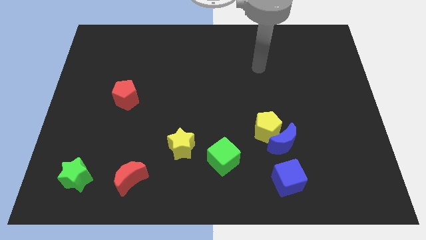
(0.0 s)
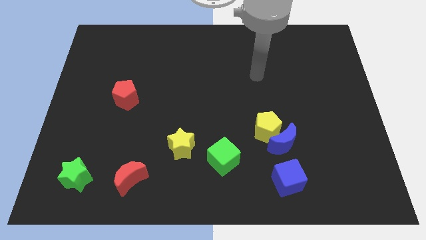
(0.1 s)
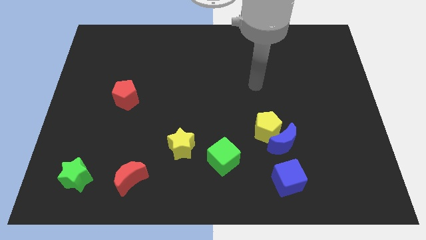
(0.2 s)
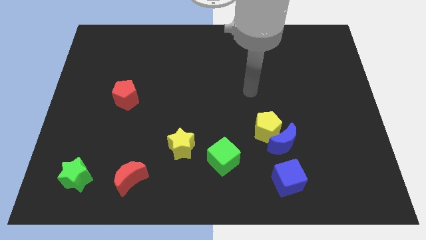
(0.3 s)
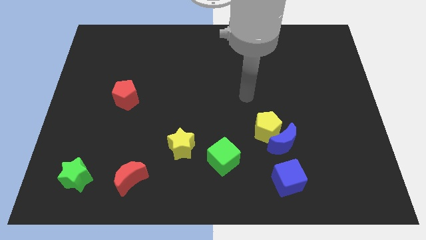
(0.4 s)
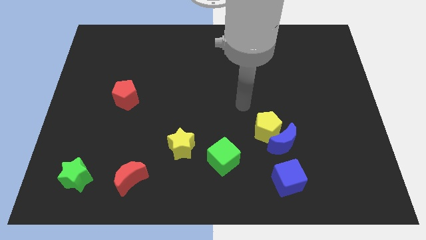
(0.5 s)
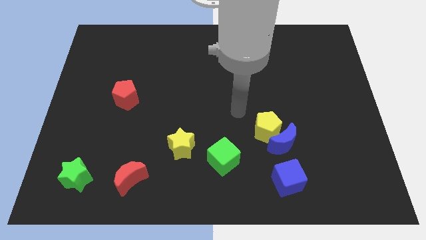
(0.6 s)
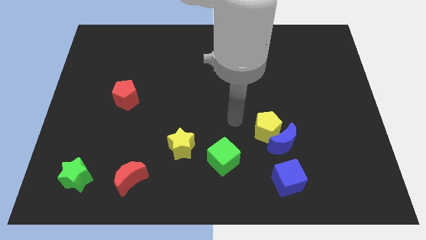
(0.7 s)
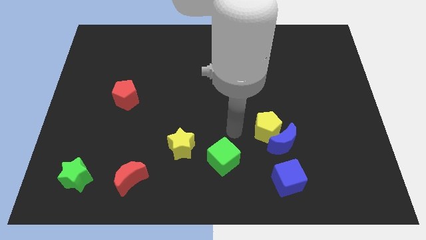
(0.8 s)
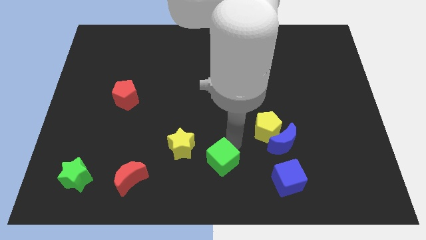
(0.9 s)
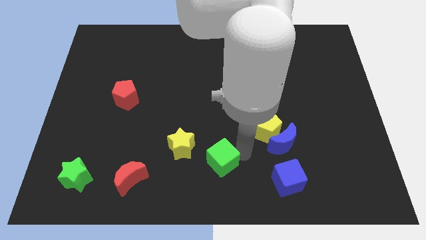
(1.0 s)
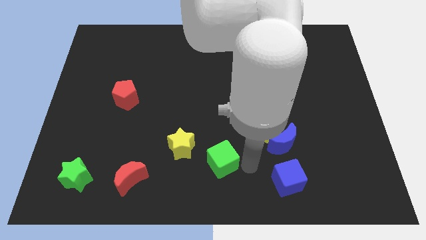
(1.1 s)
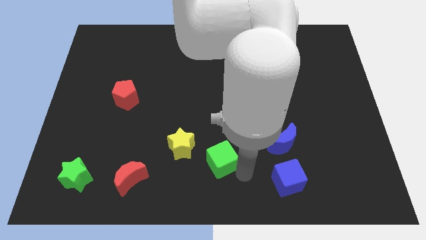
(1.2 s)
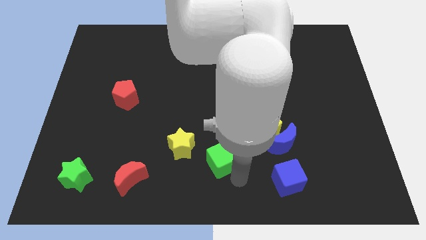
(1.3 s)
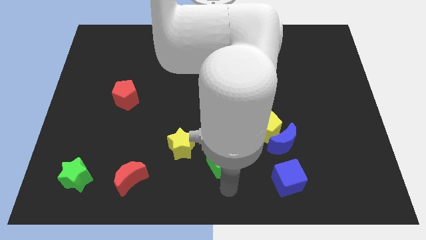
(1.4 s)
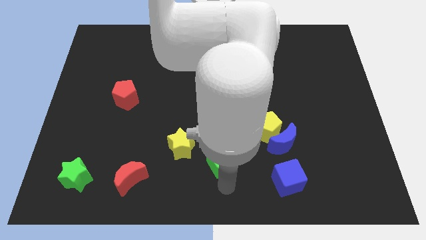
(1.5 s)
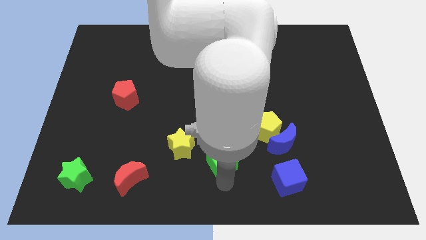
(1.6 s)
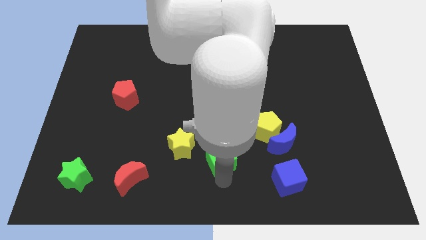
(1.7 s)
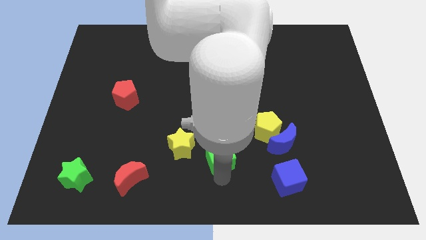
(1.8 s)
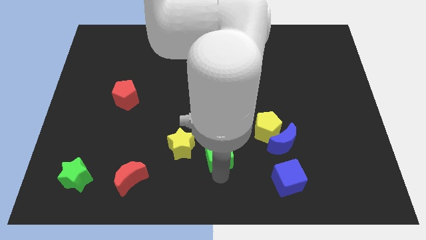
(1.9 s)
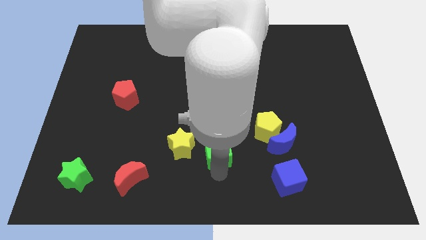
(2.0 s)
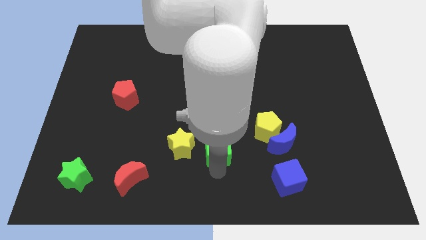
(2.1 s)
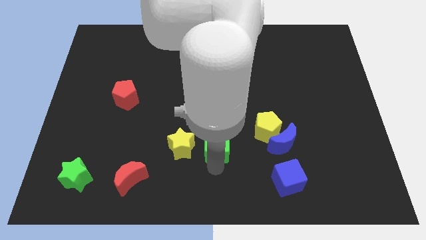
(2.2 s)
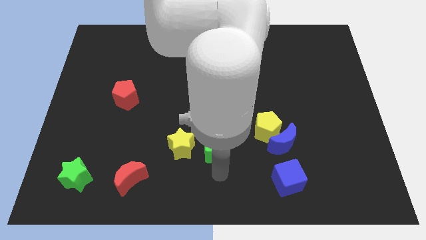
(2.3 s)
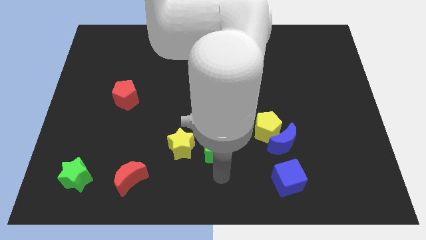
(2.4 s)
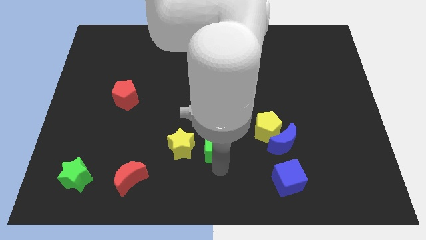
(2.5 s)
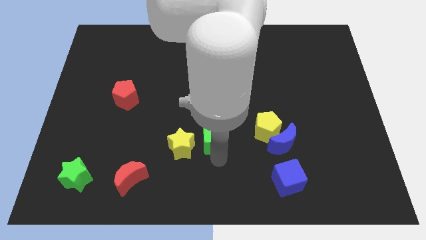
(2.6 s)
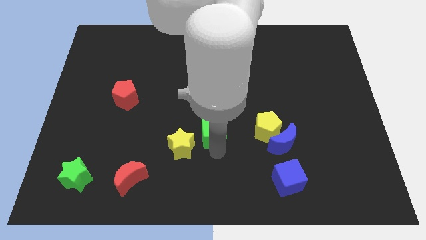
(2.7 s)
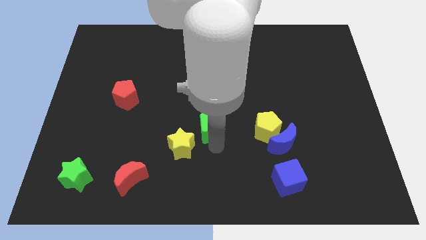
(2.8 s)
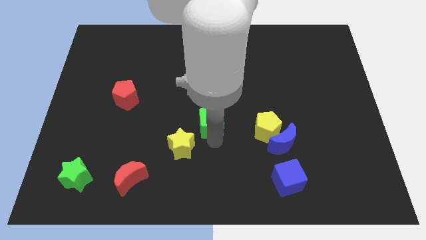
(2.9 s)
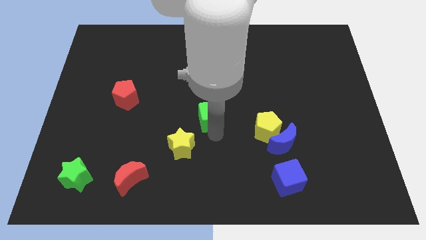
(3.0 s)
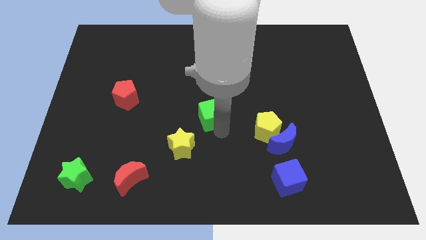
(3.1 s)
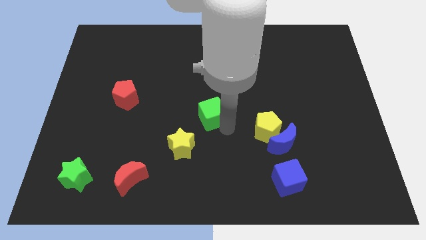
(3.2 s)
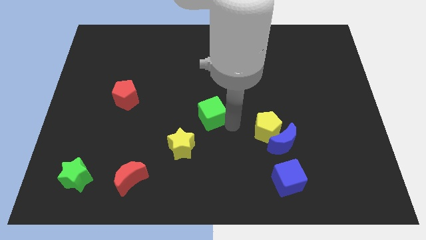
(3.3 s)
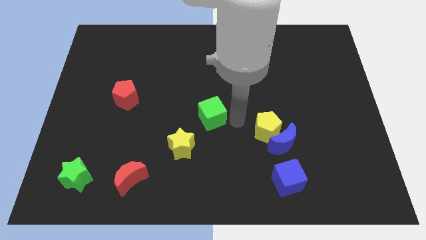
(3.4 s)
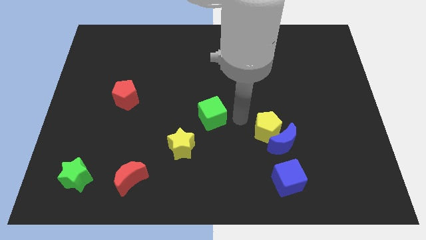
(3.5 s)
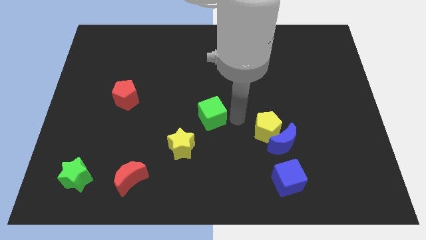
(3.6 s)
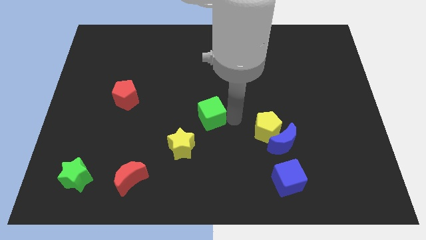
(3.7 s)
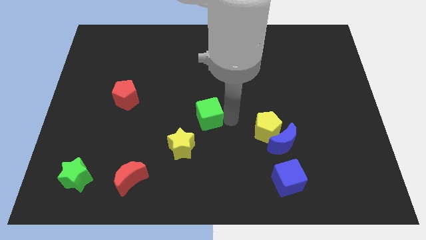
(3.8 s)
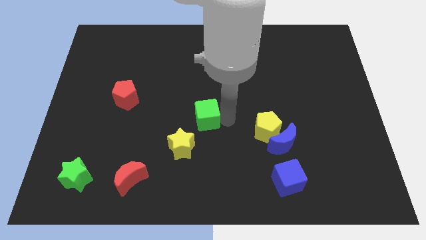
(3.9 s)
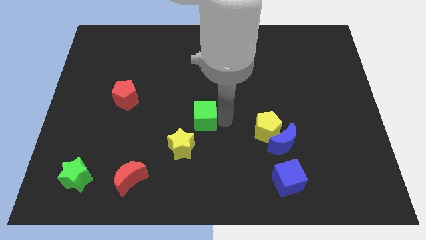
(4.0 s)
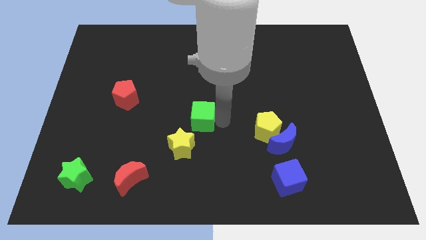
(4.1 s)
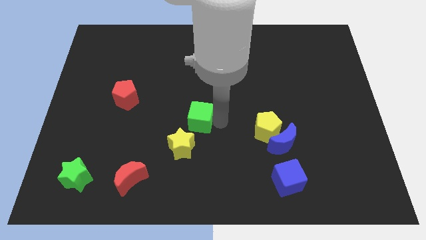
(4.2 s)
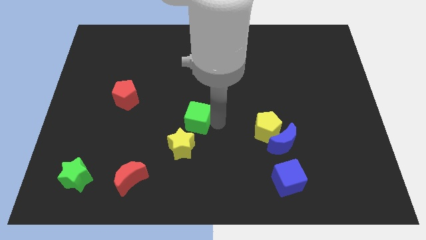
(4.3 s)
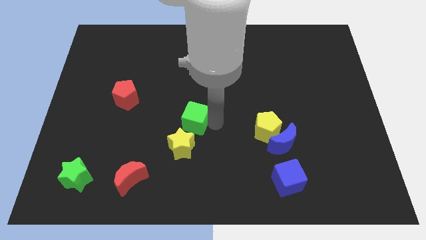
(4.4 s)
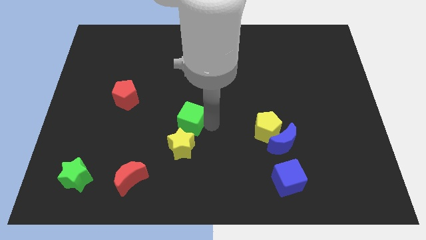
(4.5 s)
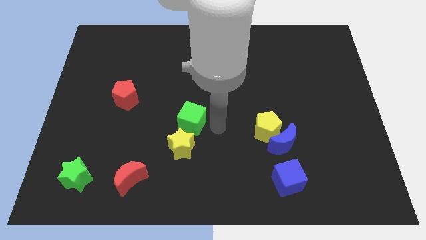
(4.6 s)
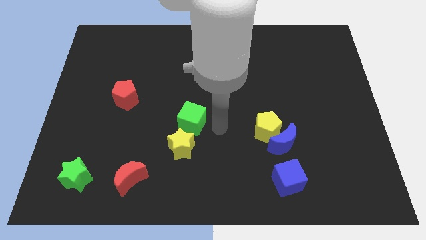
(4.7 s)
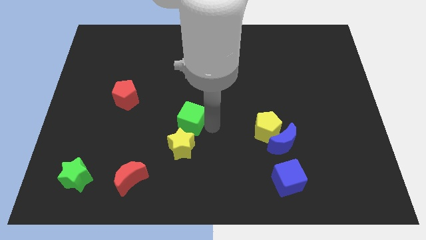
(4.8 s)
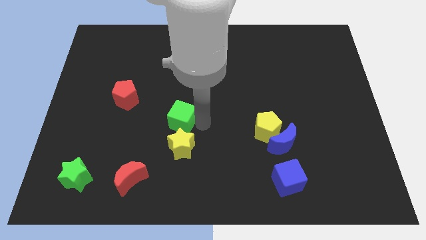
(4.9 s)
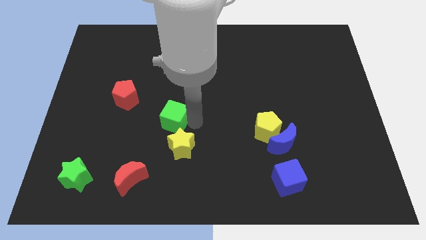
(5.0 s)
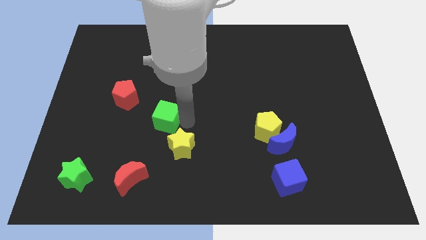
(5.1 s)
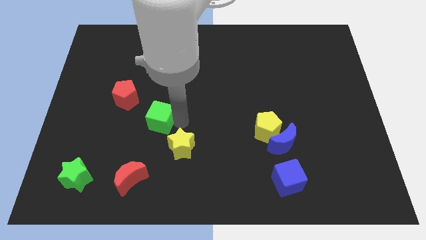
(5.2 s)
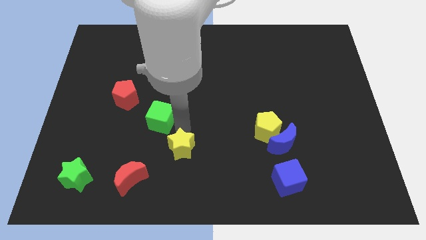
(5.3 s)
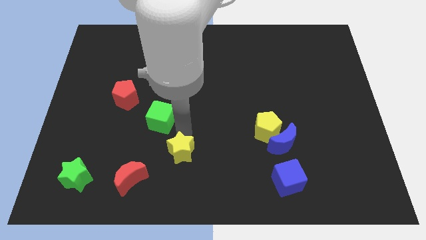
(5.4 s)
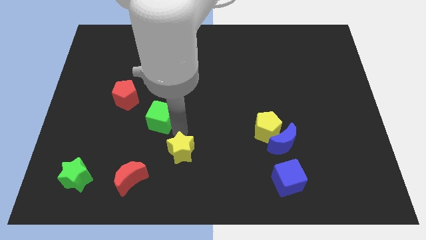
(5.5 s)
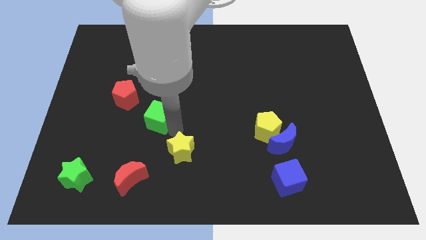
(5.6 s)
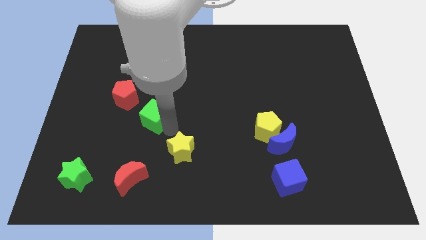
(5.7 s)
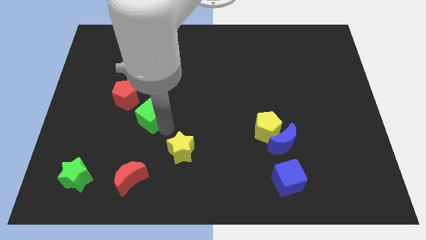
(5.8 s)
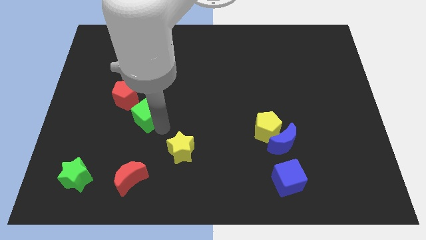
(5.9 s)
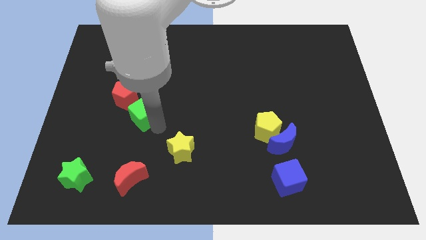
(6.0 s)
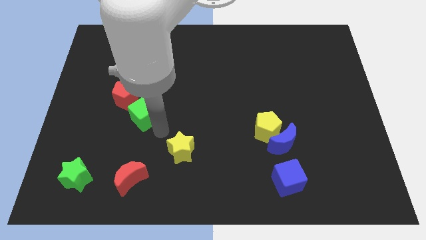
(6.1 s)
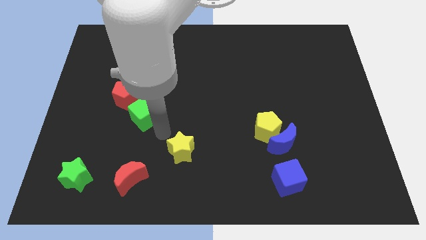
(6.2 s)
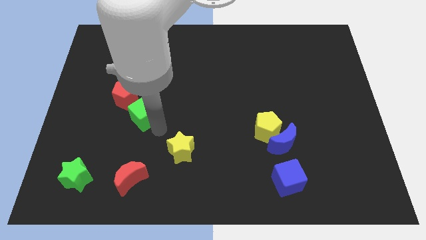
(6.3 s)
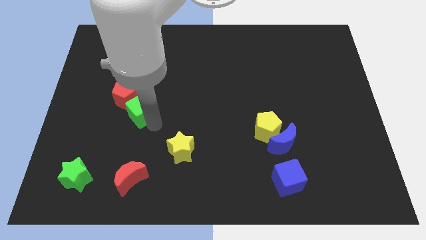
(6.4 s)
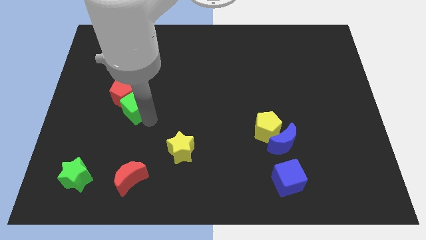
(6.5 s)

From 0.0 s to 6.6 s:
push the green cube close to the red pentagon
